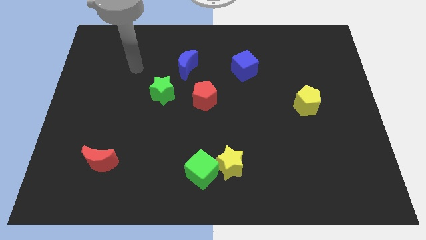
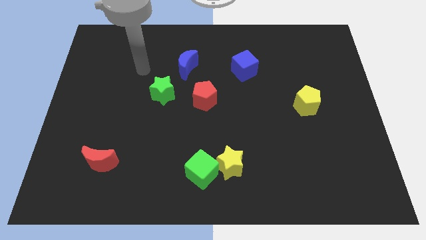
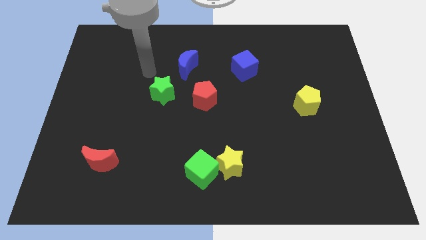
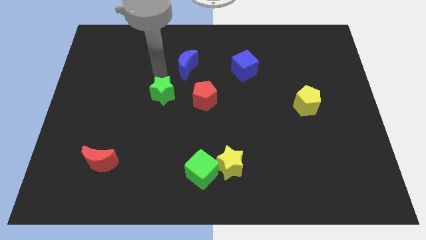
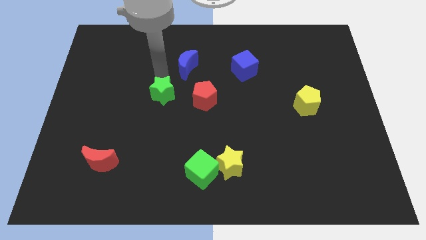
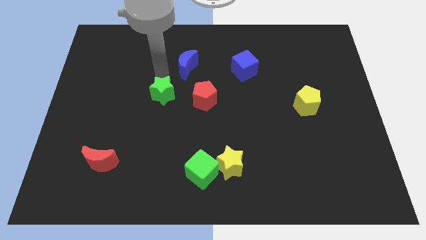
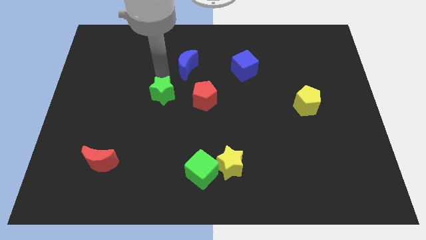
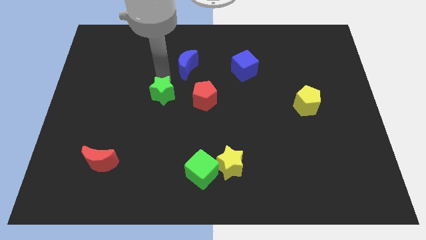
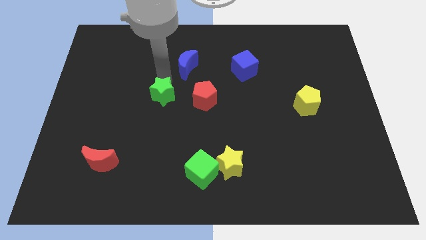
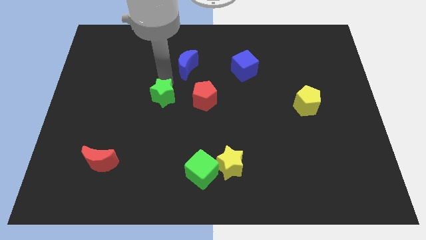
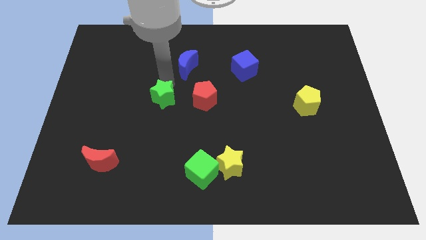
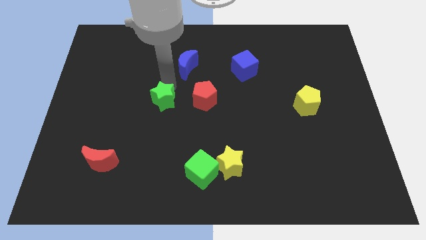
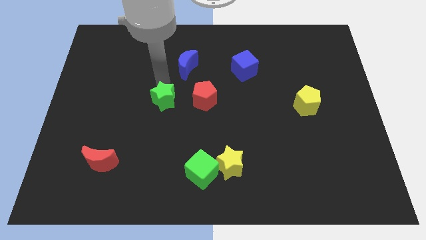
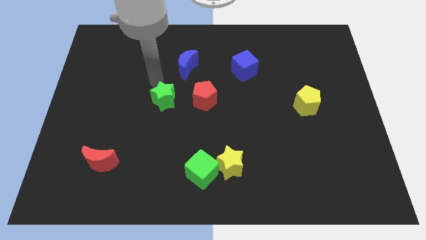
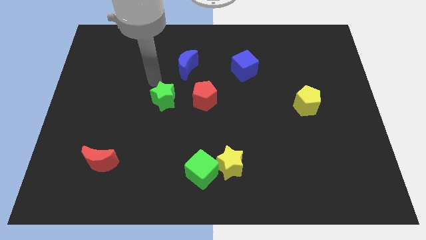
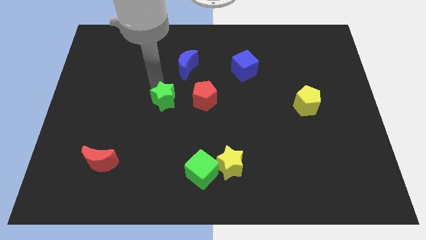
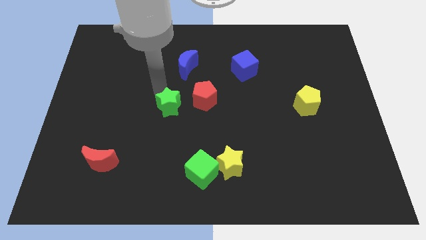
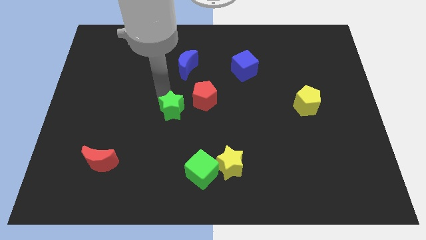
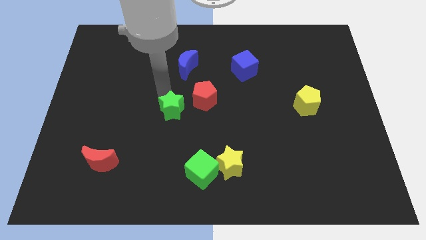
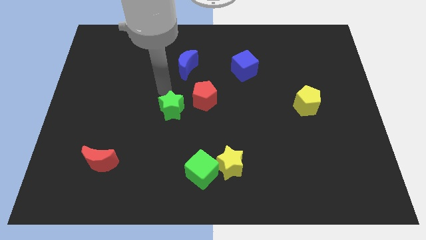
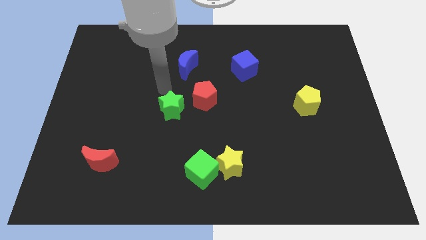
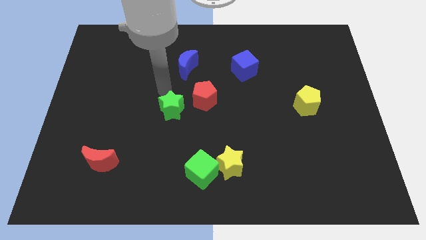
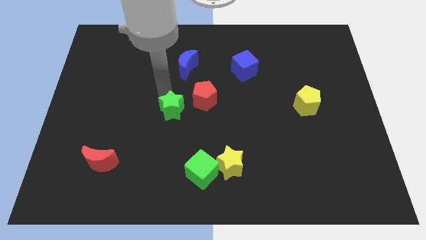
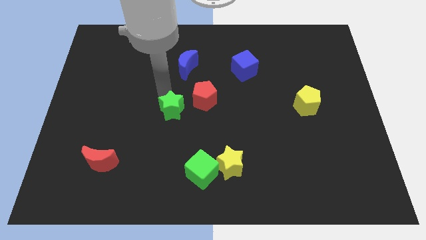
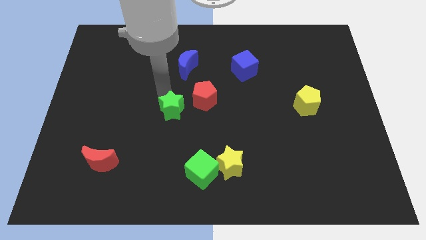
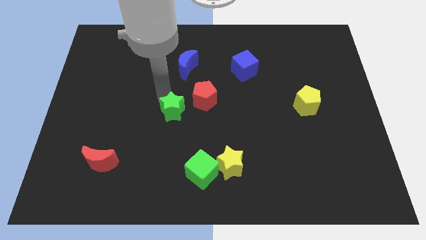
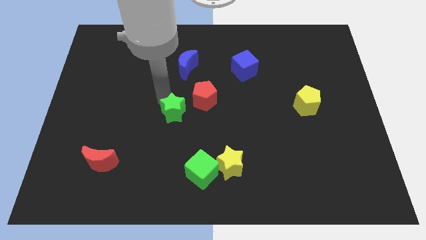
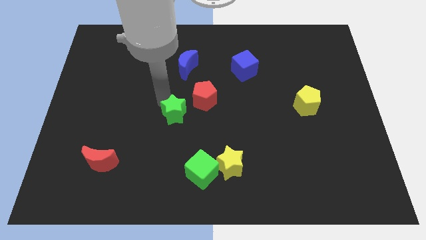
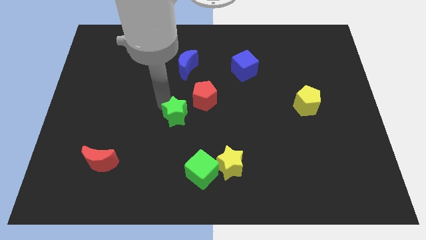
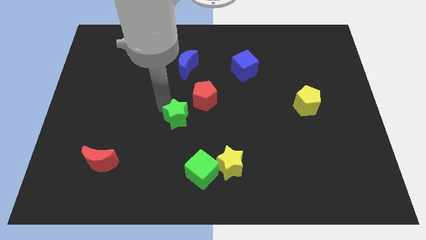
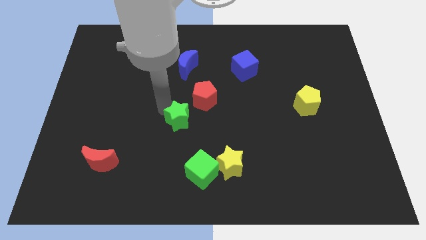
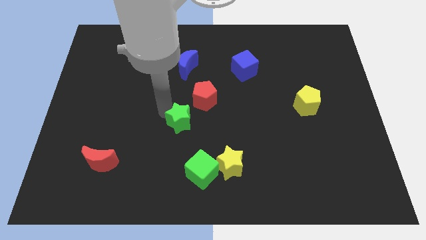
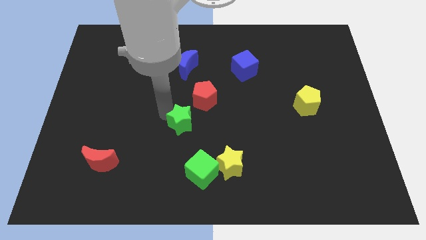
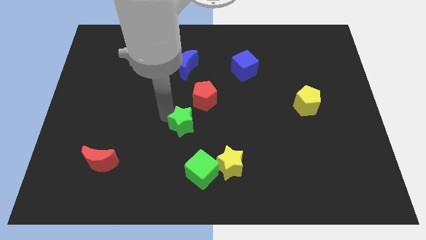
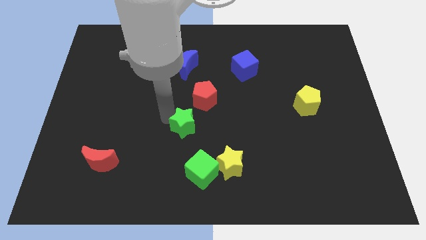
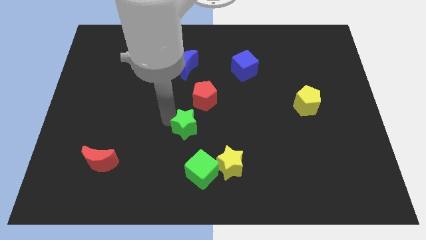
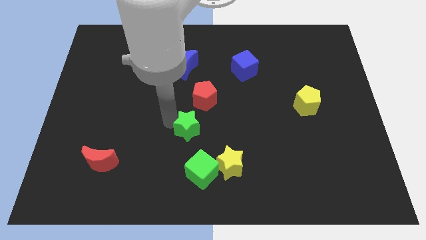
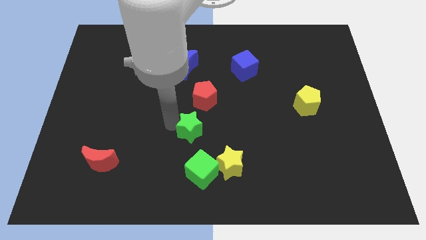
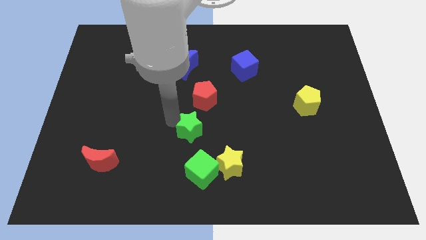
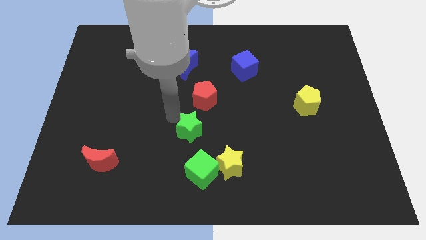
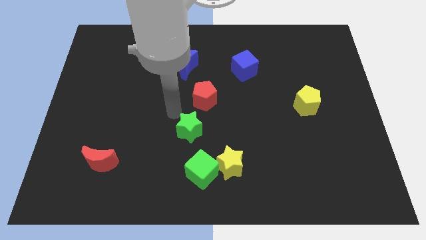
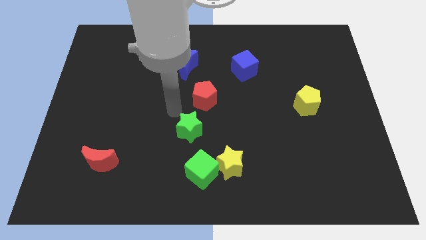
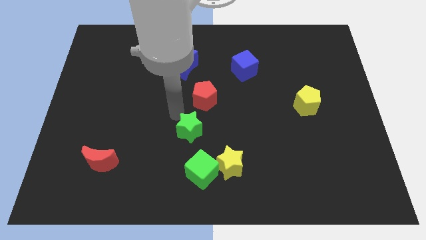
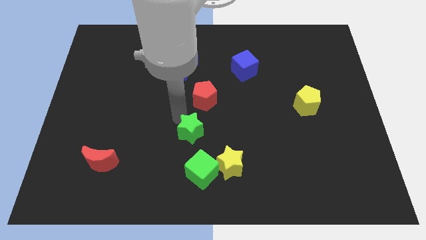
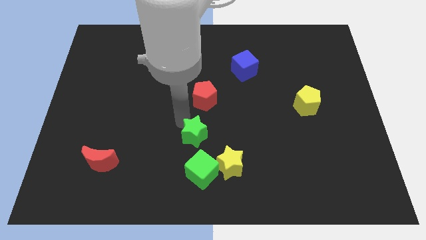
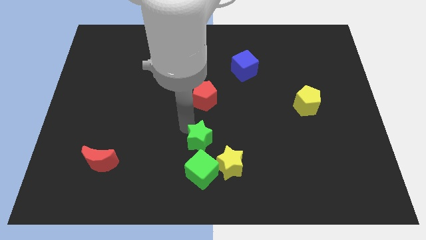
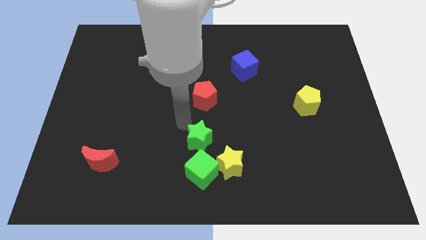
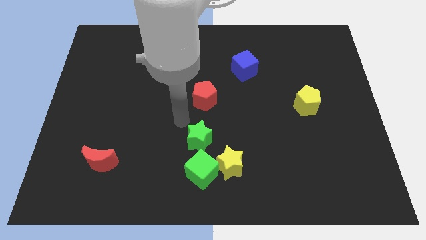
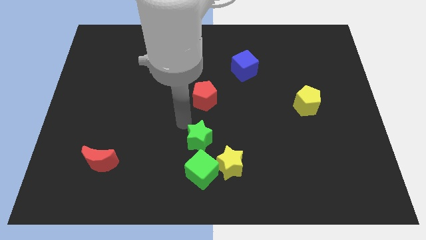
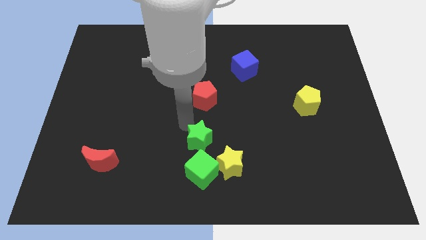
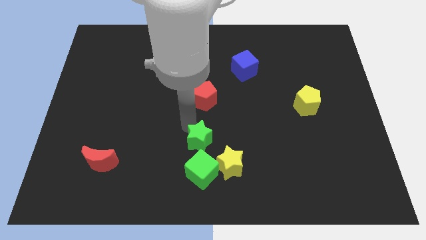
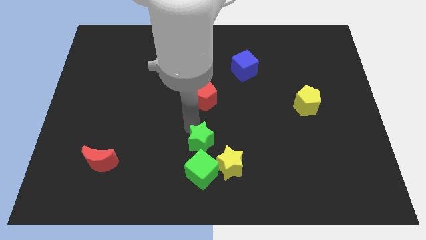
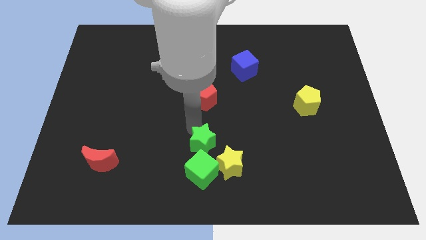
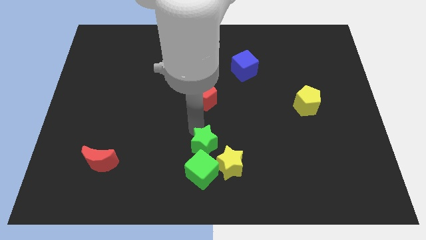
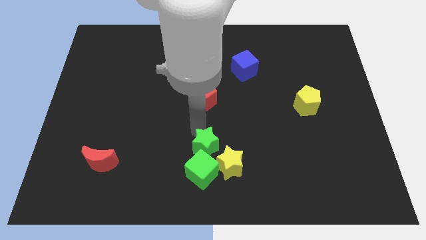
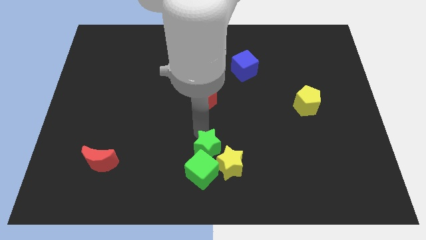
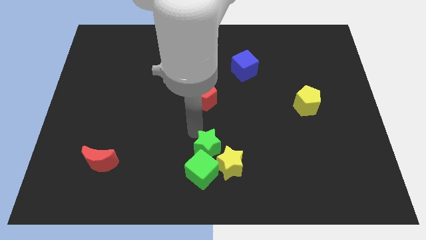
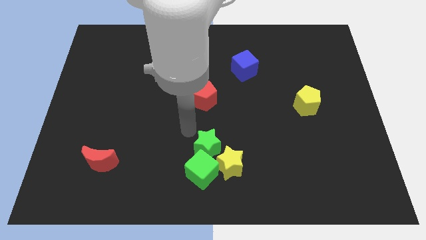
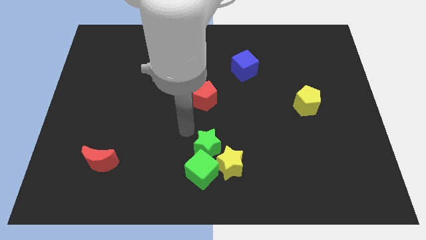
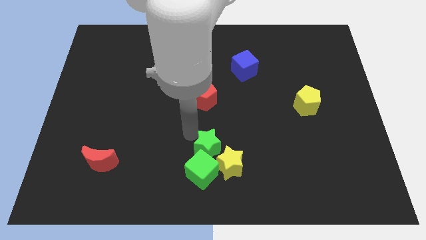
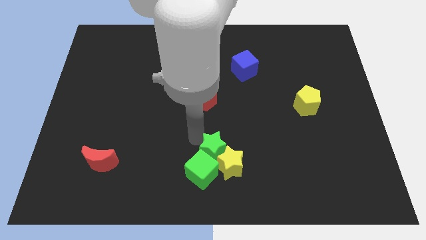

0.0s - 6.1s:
slide the green star to the yellow star

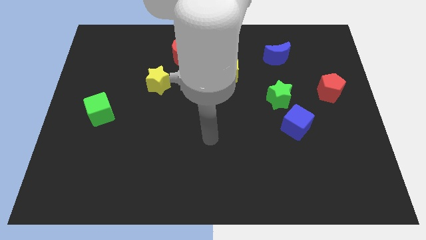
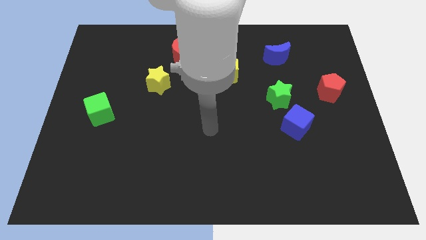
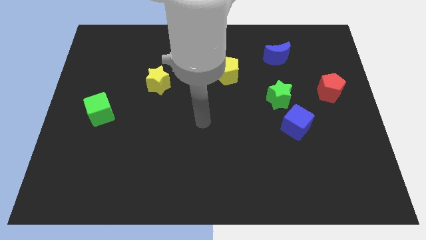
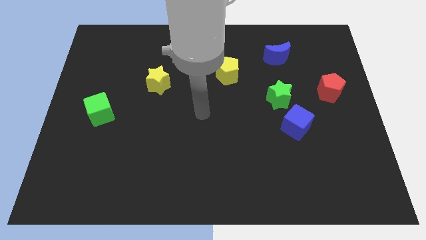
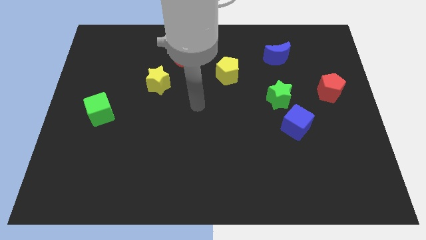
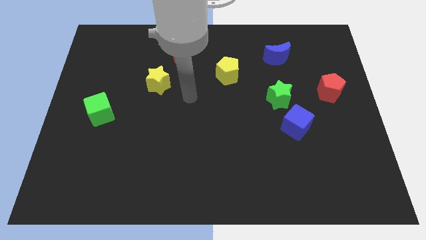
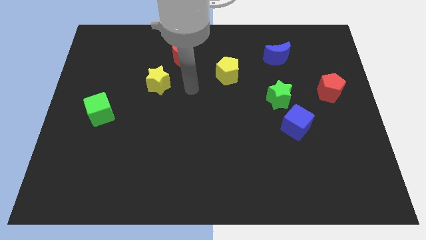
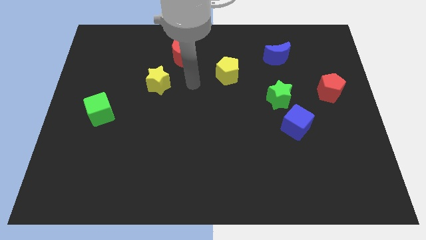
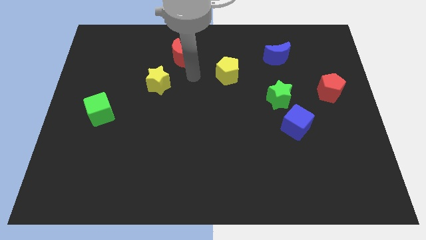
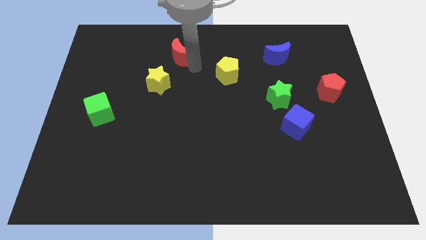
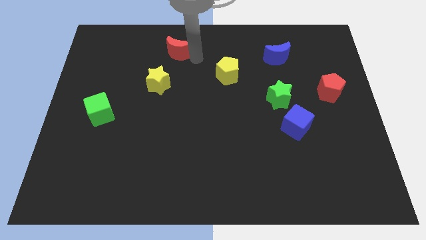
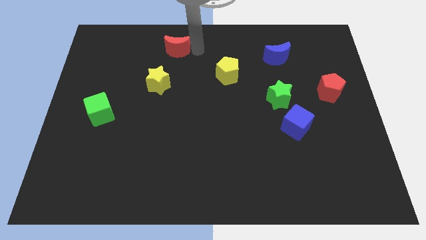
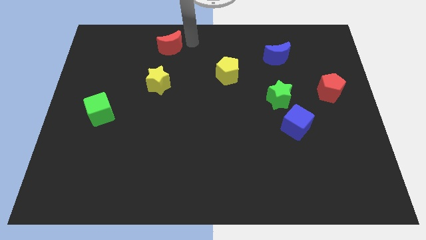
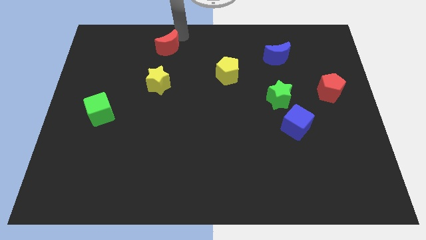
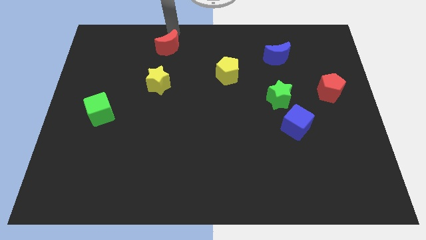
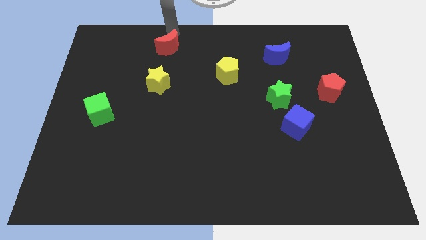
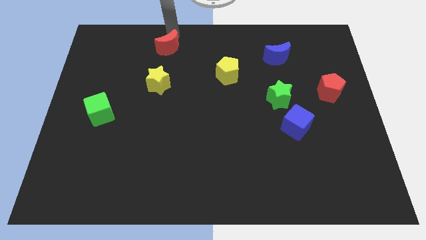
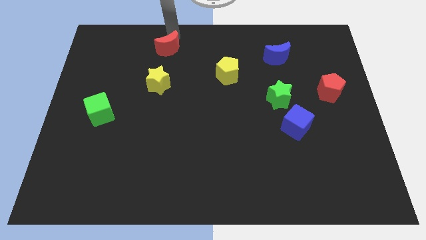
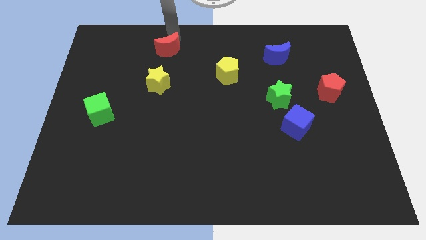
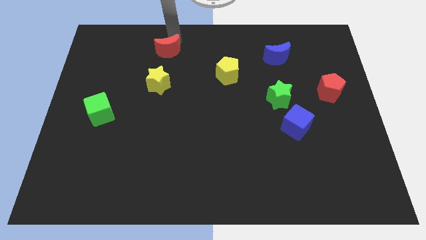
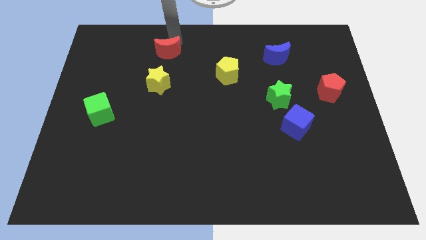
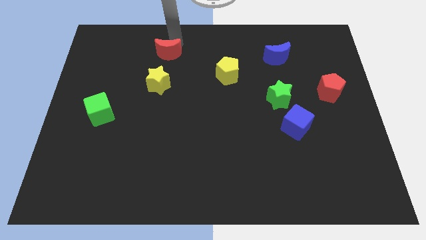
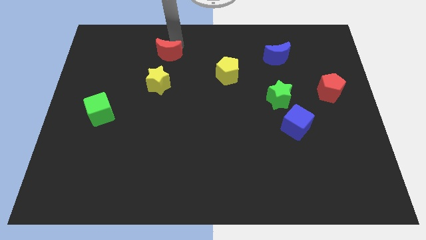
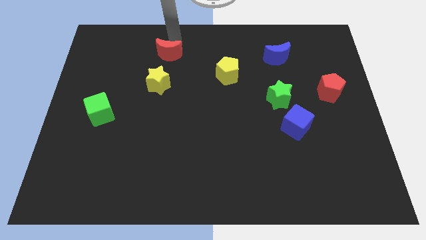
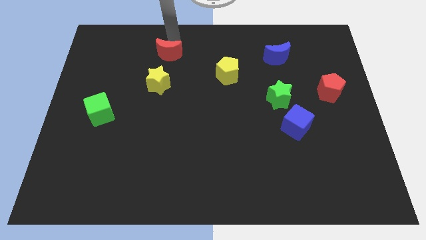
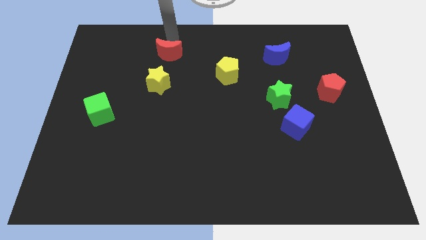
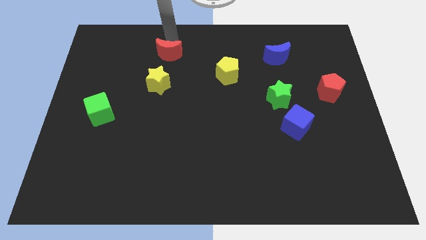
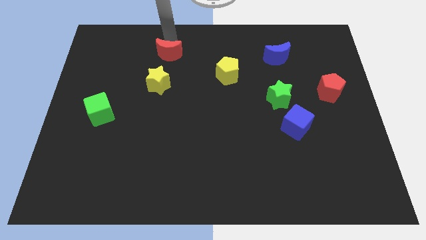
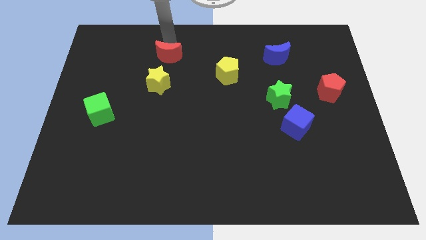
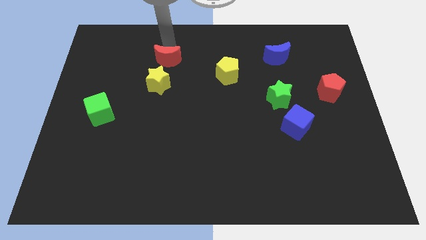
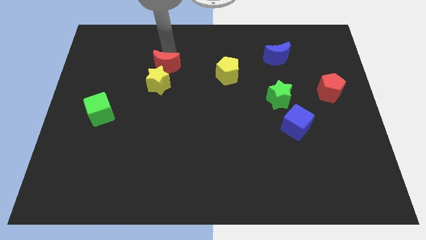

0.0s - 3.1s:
slide the red moon towards the yellow star
